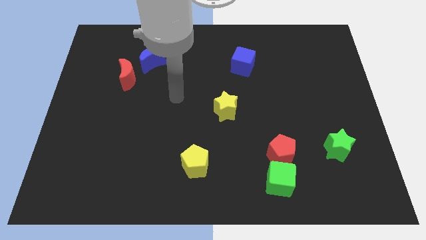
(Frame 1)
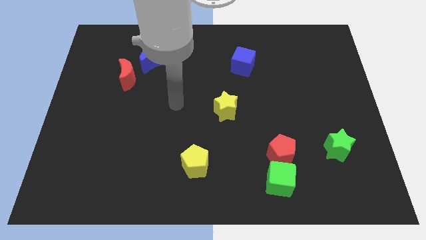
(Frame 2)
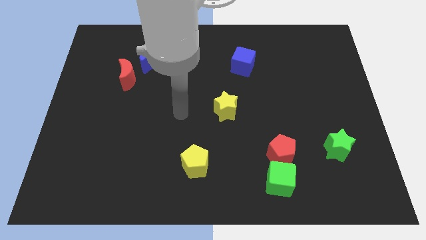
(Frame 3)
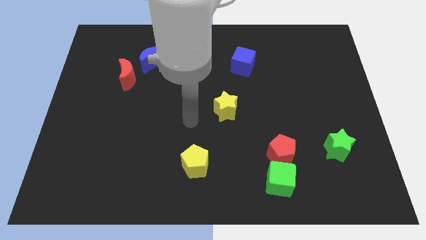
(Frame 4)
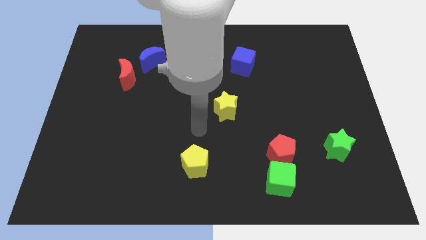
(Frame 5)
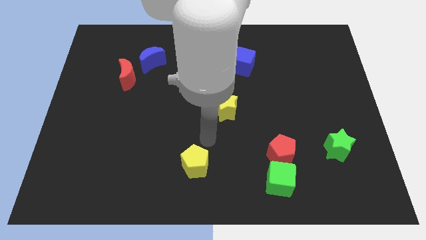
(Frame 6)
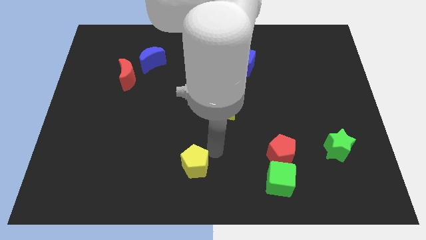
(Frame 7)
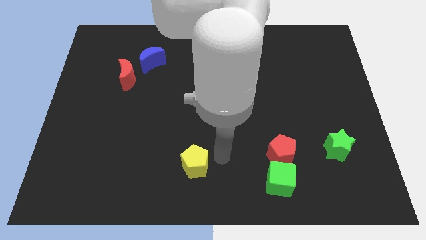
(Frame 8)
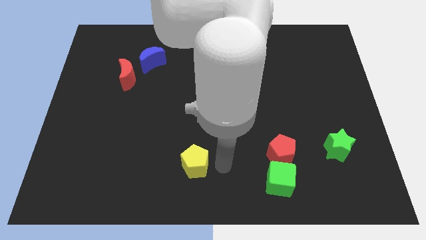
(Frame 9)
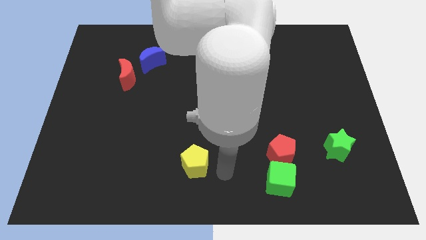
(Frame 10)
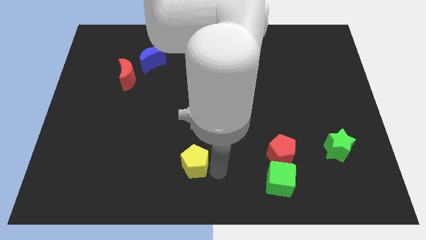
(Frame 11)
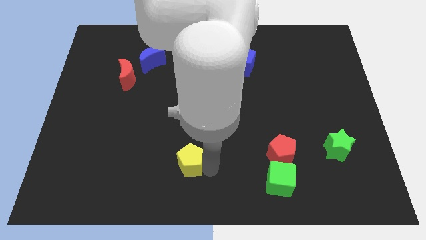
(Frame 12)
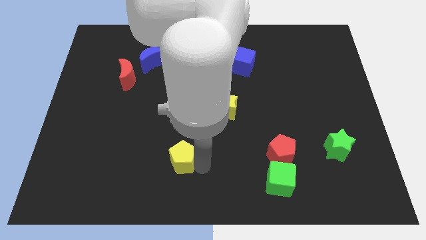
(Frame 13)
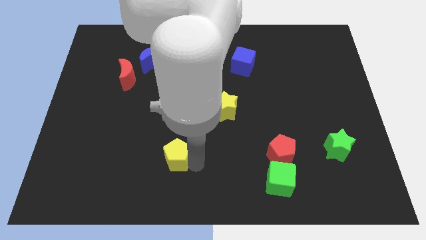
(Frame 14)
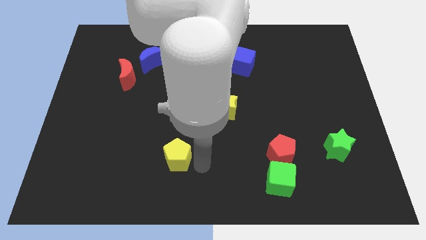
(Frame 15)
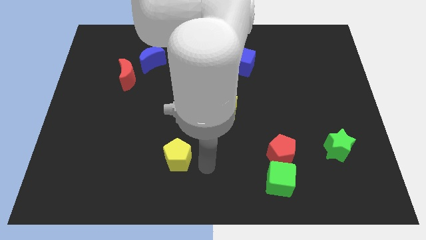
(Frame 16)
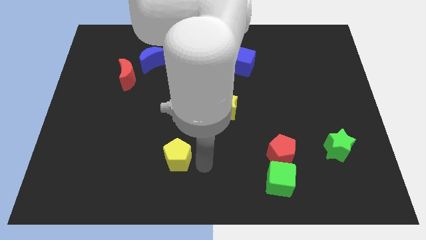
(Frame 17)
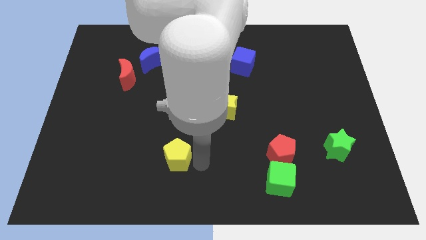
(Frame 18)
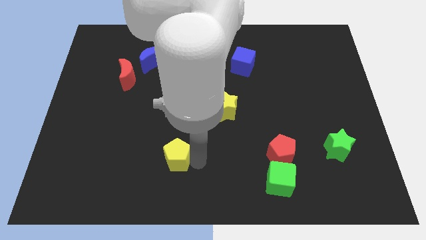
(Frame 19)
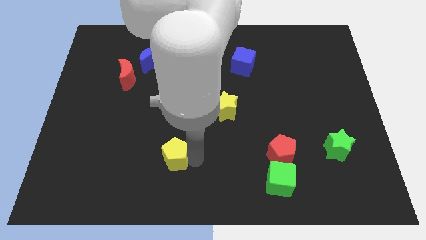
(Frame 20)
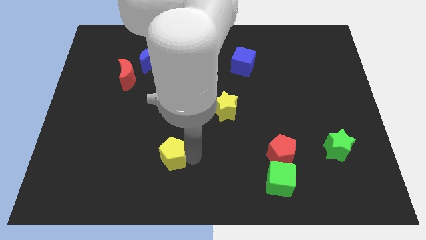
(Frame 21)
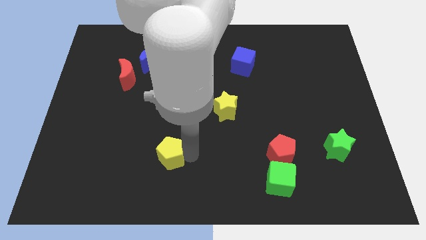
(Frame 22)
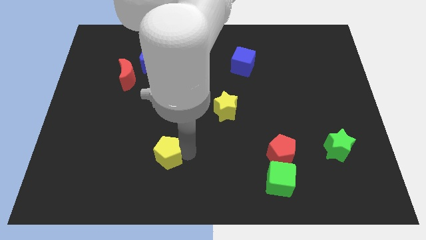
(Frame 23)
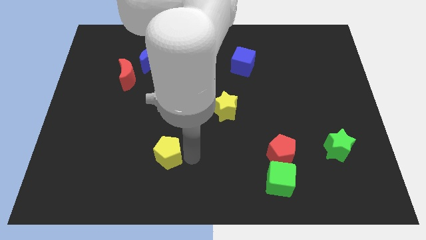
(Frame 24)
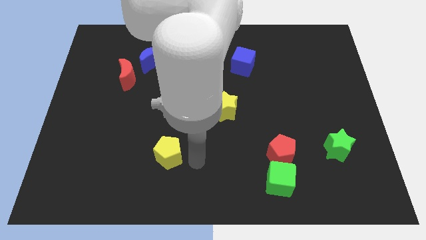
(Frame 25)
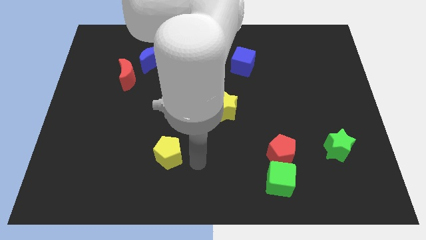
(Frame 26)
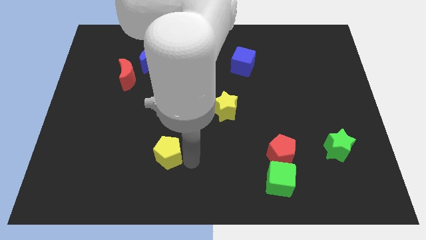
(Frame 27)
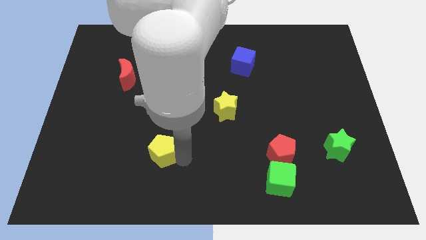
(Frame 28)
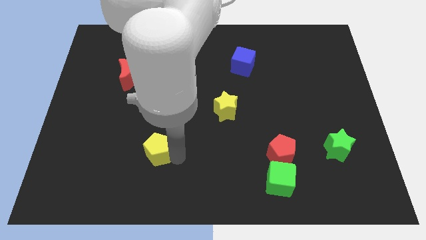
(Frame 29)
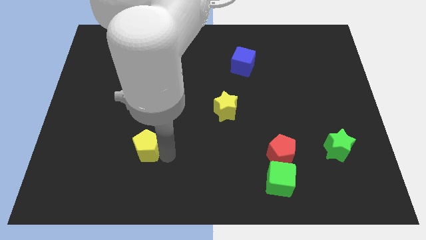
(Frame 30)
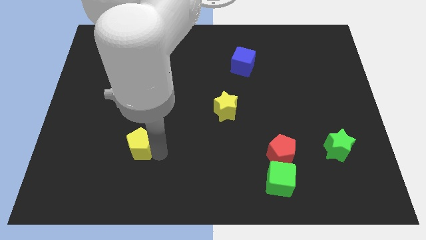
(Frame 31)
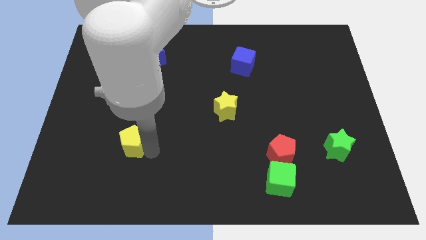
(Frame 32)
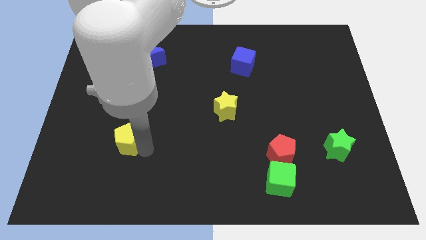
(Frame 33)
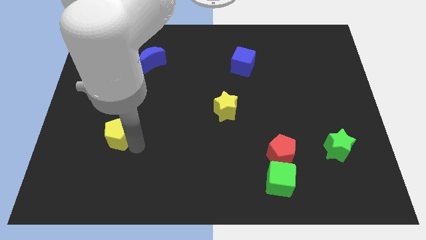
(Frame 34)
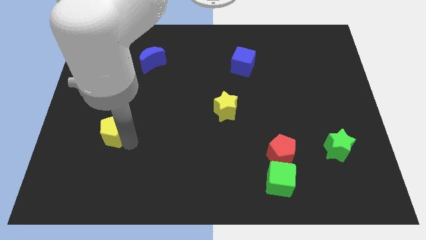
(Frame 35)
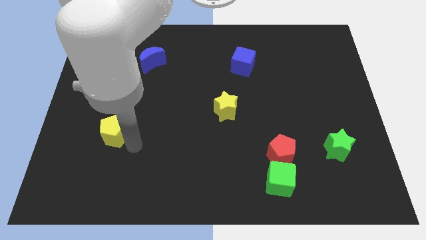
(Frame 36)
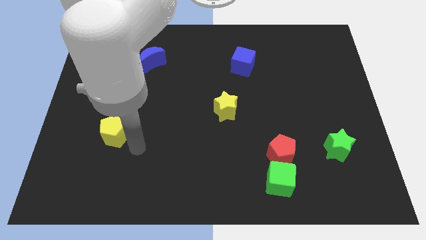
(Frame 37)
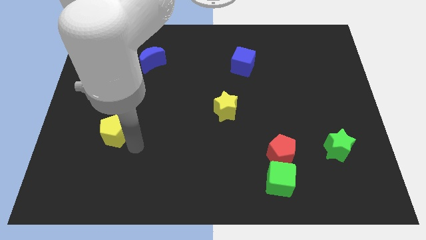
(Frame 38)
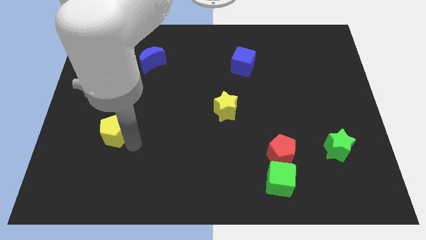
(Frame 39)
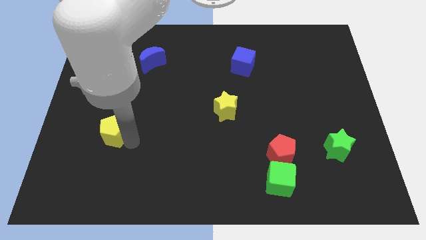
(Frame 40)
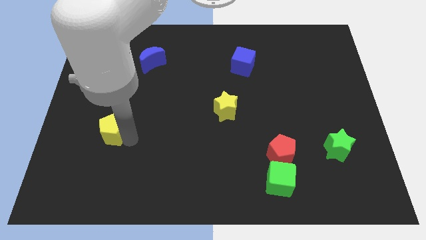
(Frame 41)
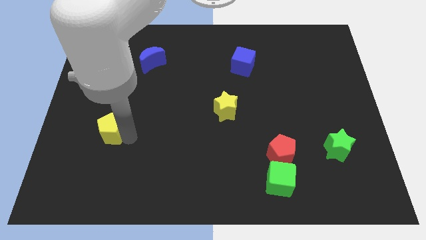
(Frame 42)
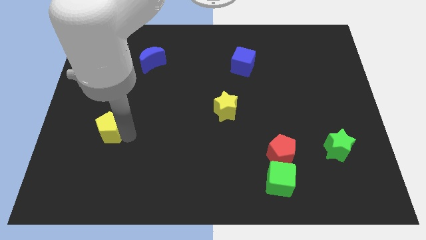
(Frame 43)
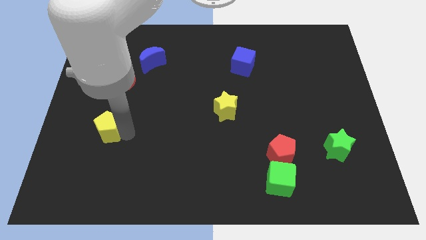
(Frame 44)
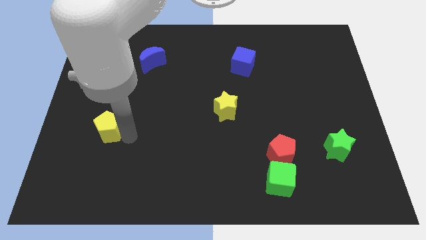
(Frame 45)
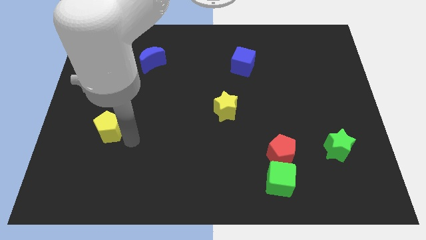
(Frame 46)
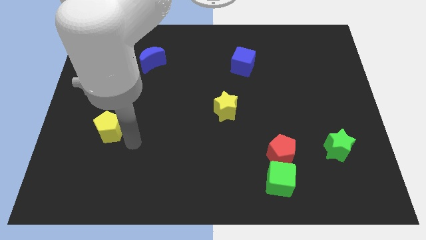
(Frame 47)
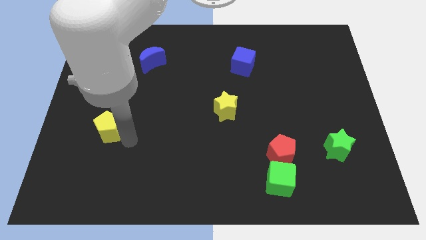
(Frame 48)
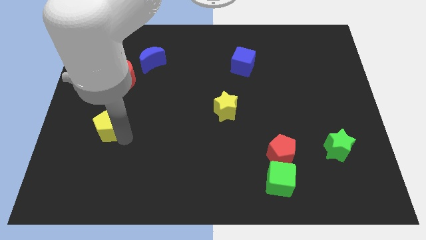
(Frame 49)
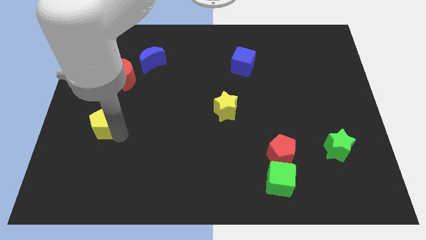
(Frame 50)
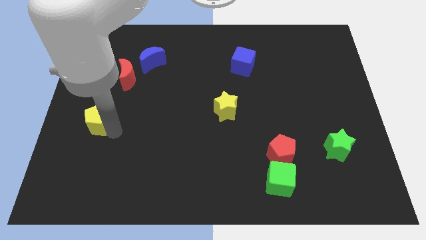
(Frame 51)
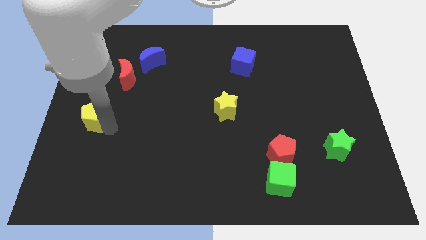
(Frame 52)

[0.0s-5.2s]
move the yellow pentagon to the left side of the board

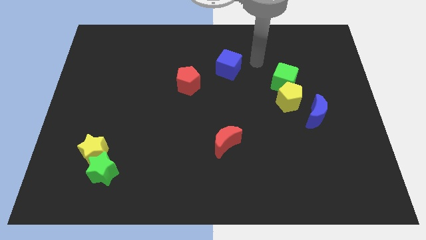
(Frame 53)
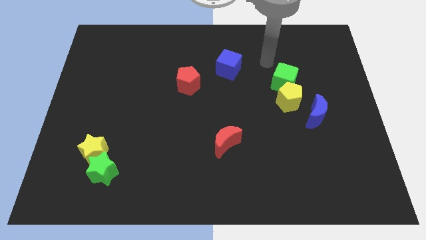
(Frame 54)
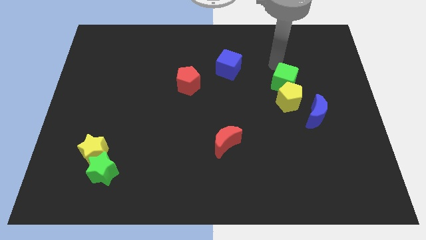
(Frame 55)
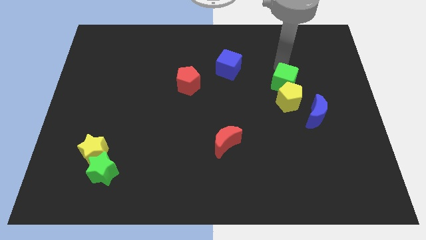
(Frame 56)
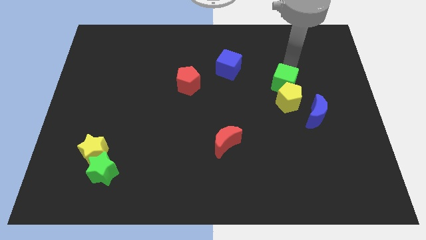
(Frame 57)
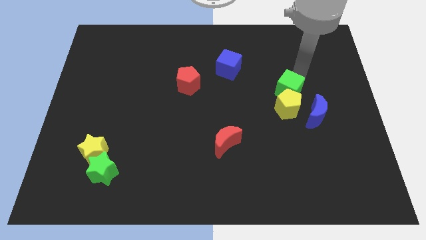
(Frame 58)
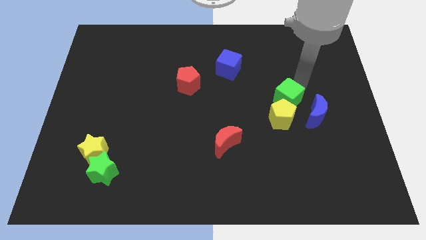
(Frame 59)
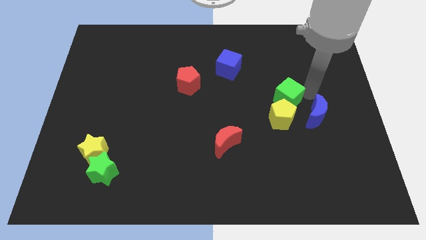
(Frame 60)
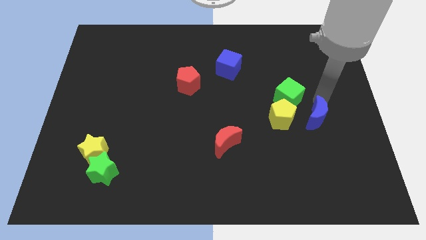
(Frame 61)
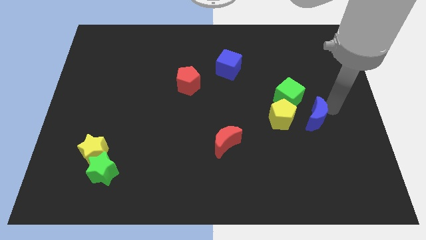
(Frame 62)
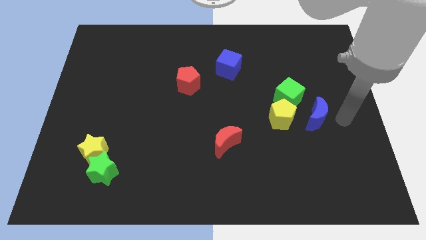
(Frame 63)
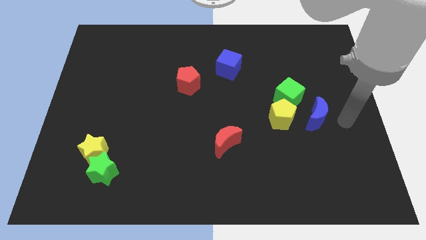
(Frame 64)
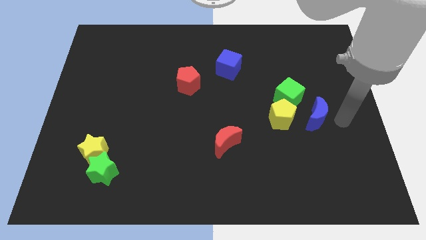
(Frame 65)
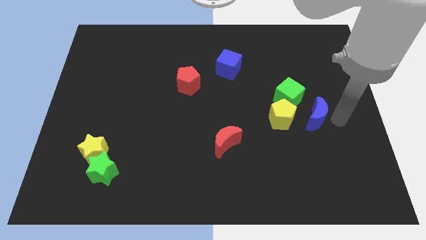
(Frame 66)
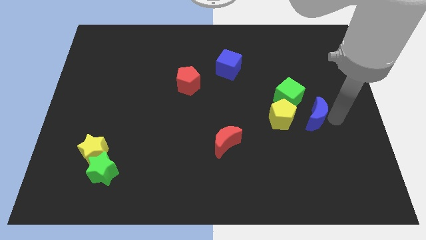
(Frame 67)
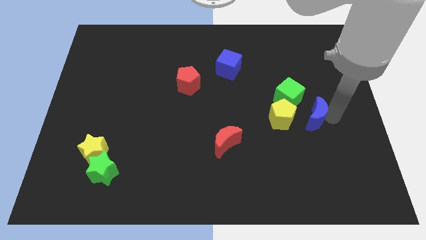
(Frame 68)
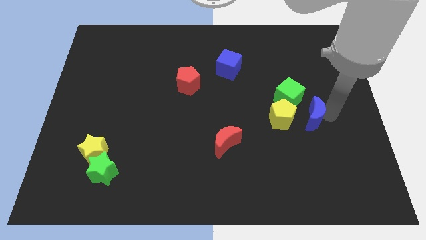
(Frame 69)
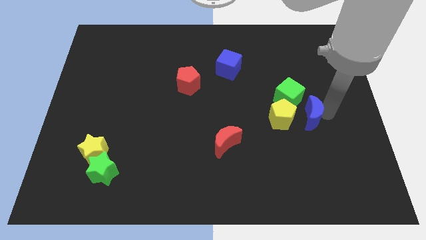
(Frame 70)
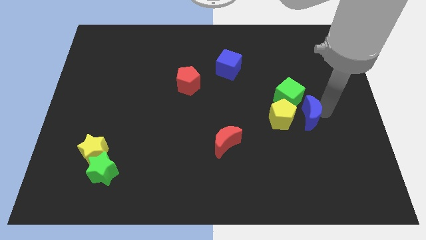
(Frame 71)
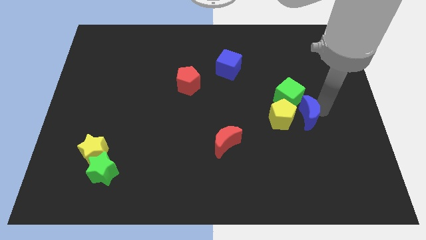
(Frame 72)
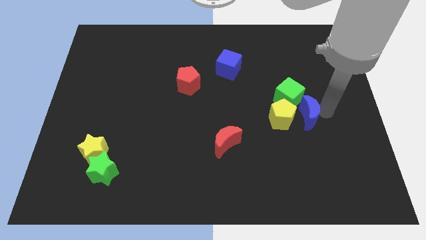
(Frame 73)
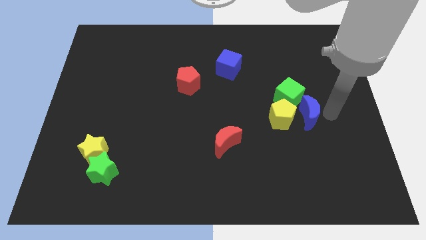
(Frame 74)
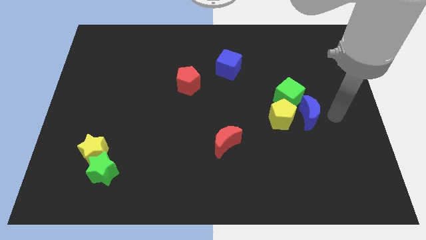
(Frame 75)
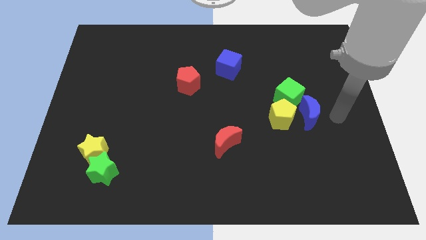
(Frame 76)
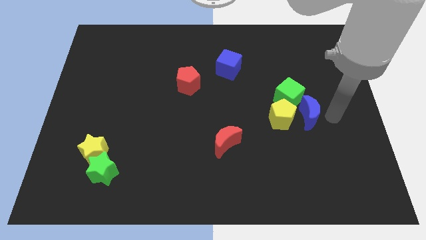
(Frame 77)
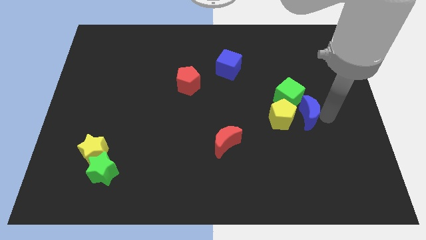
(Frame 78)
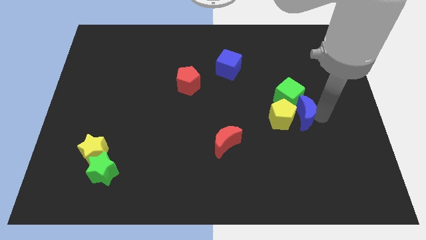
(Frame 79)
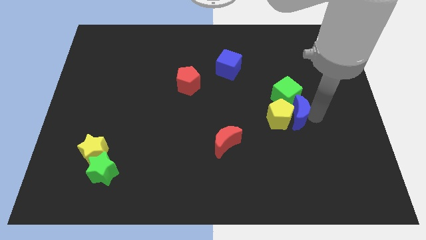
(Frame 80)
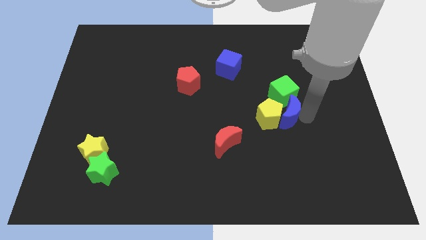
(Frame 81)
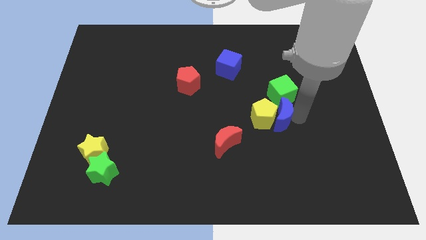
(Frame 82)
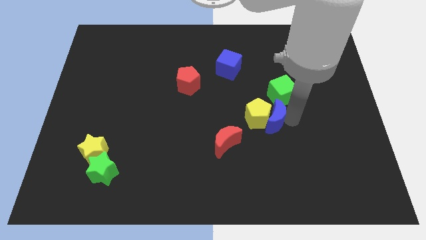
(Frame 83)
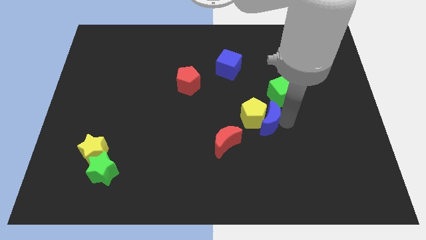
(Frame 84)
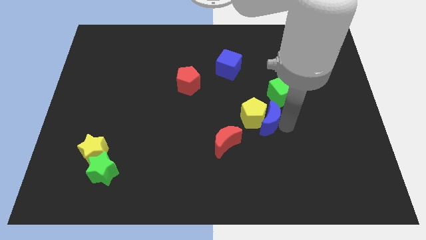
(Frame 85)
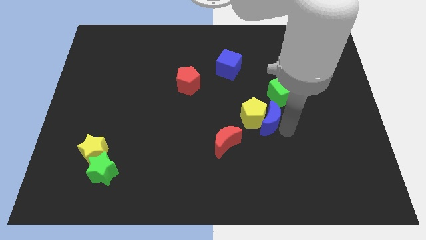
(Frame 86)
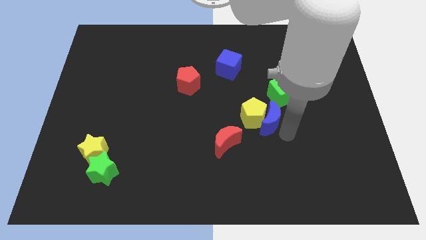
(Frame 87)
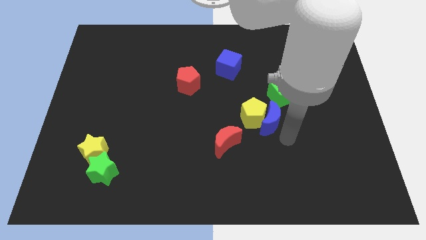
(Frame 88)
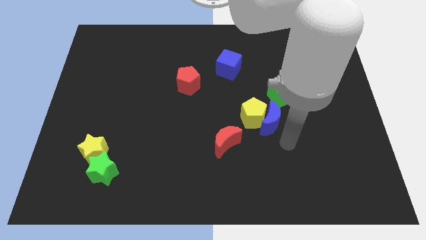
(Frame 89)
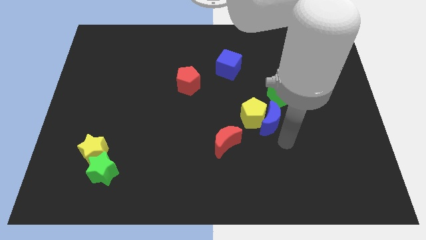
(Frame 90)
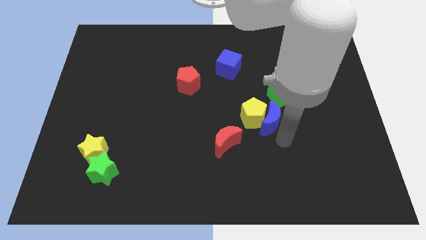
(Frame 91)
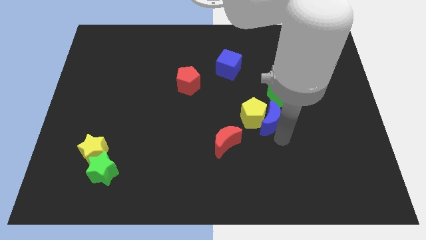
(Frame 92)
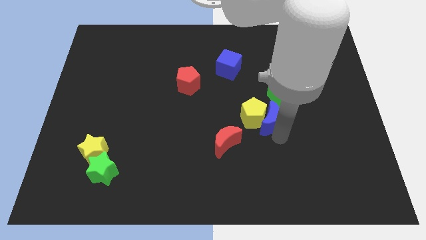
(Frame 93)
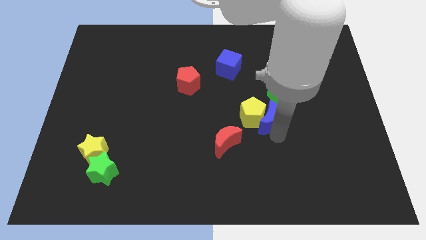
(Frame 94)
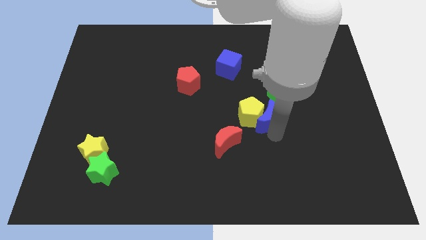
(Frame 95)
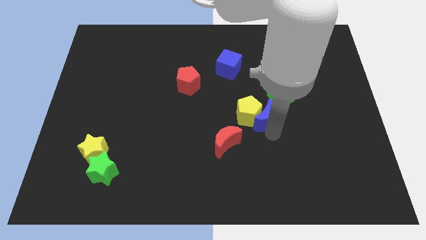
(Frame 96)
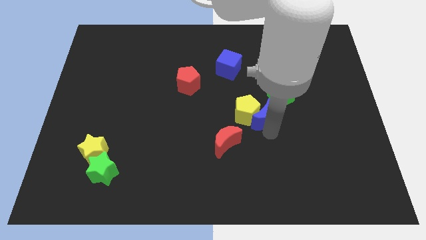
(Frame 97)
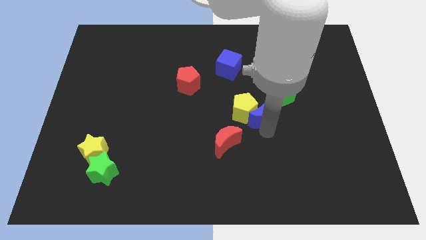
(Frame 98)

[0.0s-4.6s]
push the blue moon to the middle
